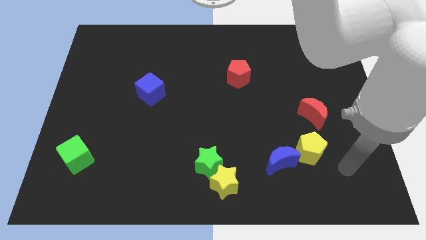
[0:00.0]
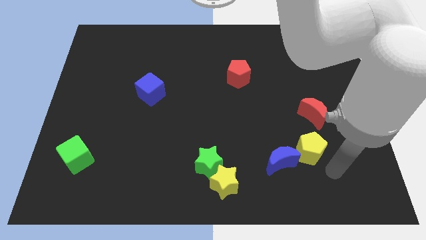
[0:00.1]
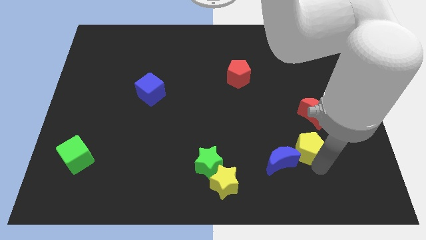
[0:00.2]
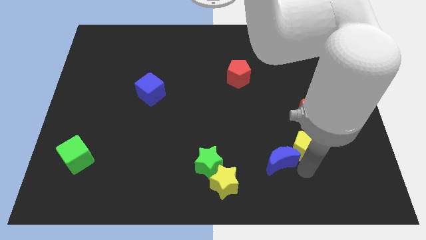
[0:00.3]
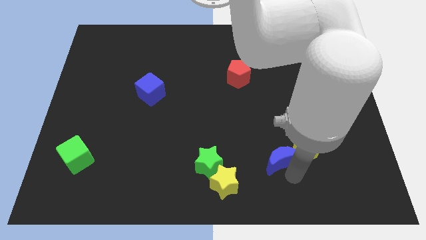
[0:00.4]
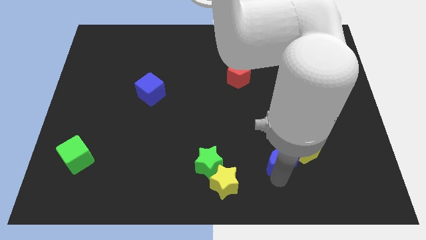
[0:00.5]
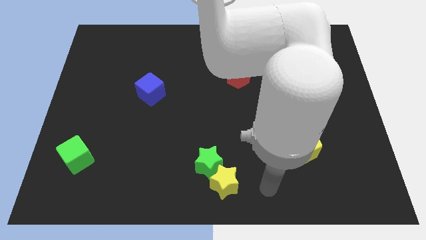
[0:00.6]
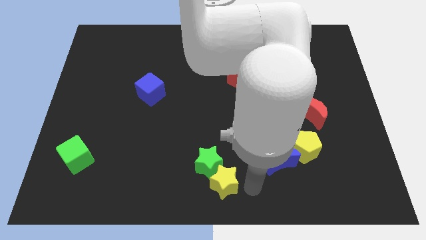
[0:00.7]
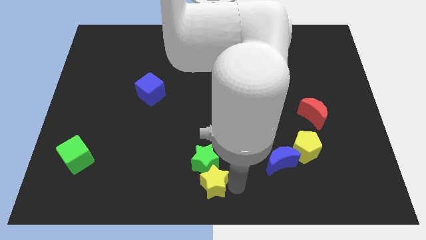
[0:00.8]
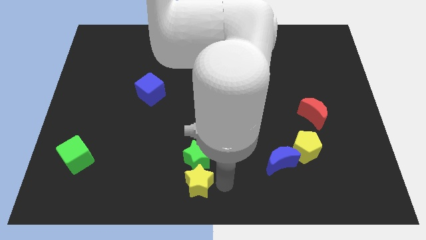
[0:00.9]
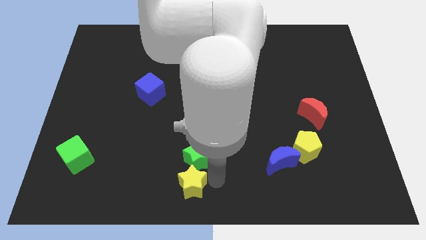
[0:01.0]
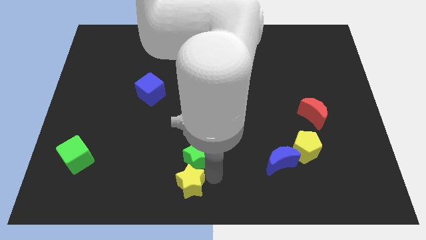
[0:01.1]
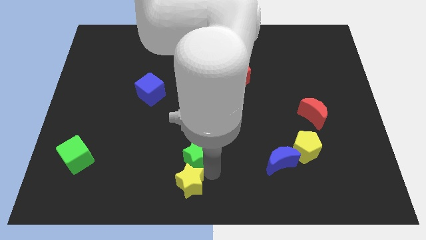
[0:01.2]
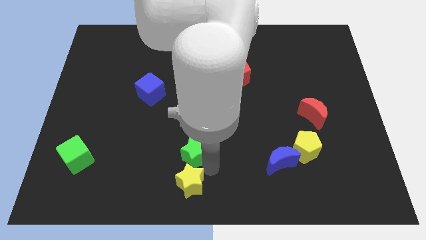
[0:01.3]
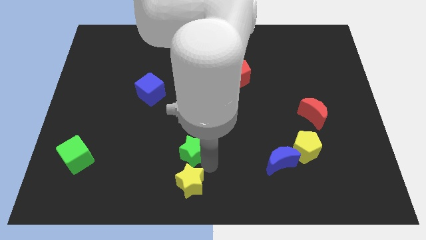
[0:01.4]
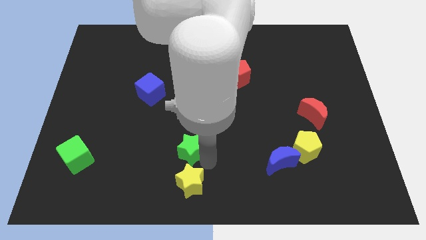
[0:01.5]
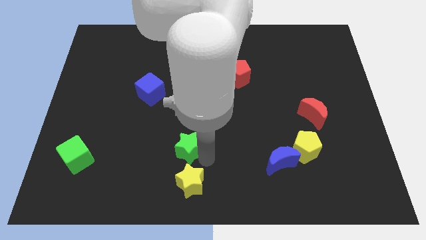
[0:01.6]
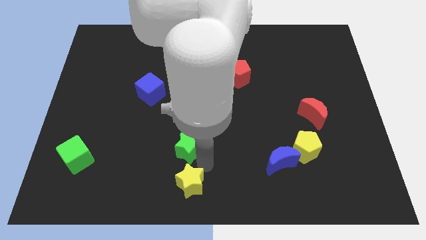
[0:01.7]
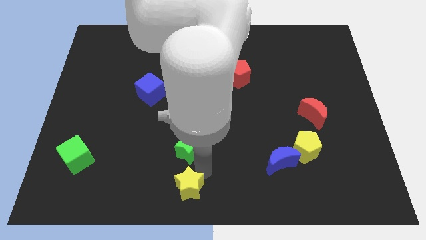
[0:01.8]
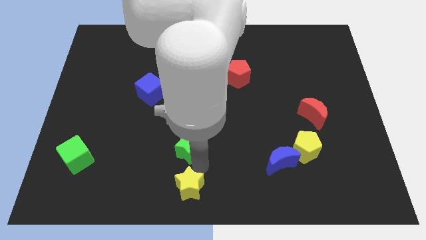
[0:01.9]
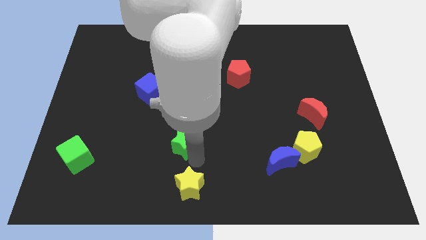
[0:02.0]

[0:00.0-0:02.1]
slide the green star up and then to the left somewhat

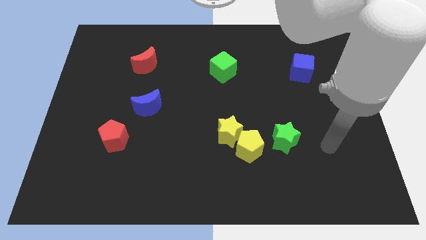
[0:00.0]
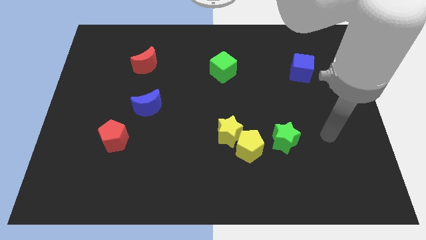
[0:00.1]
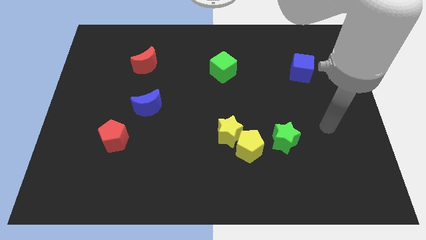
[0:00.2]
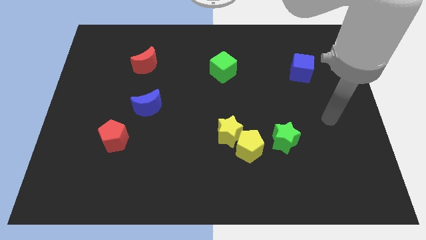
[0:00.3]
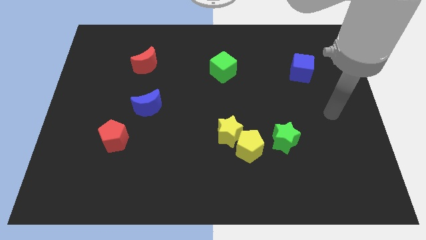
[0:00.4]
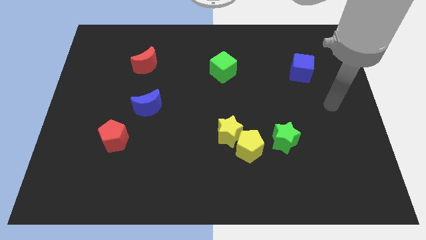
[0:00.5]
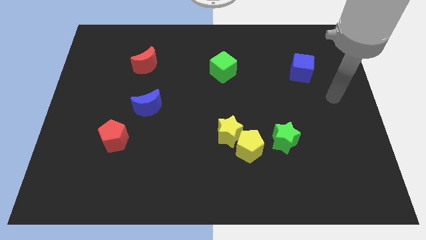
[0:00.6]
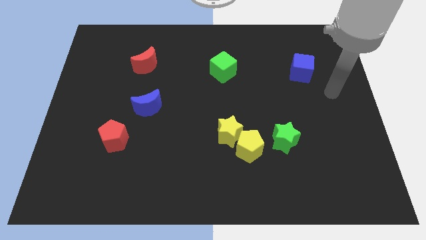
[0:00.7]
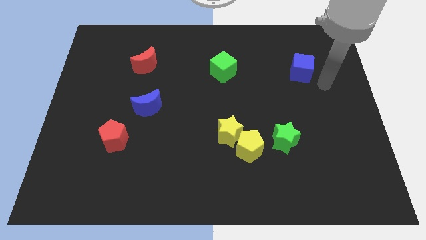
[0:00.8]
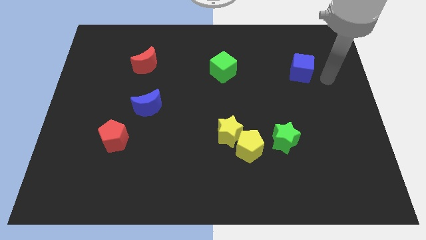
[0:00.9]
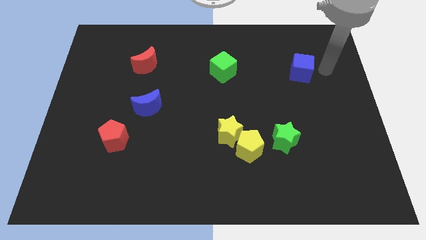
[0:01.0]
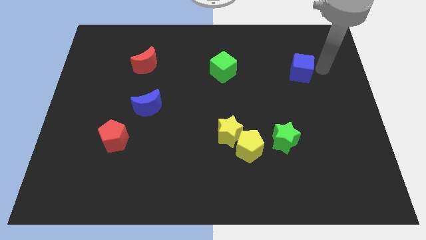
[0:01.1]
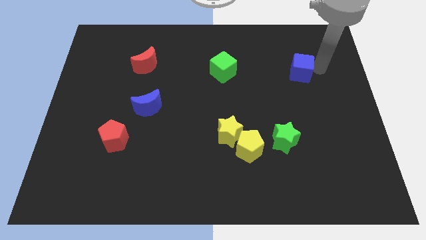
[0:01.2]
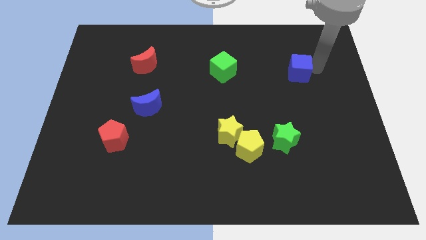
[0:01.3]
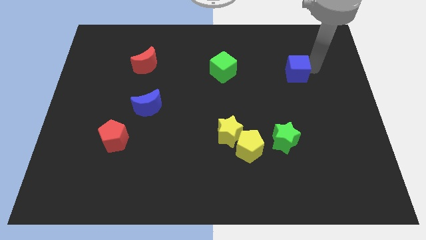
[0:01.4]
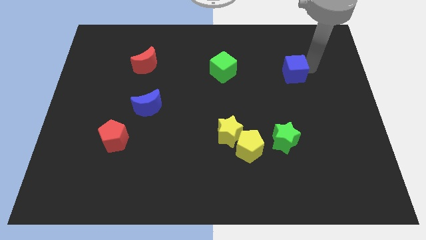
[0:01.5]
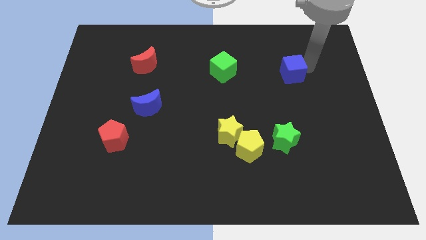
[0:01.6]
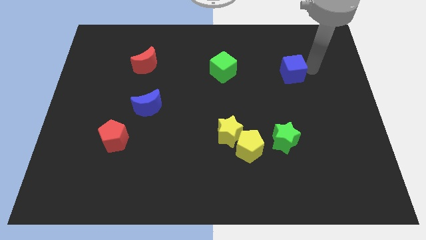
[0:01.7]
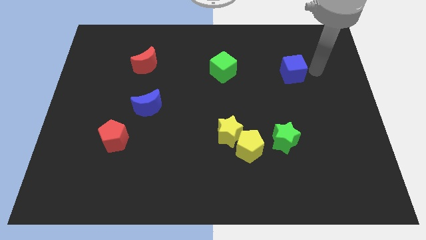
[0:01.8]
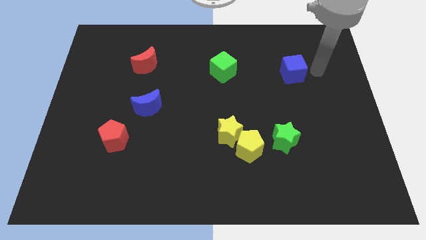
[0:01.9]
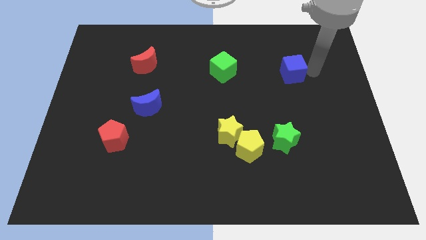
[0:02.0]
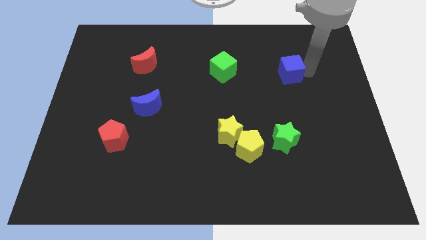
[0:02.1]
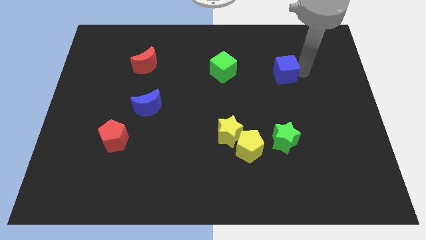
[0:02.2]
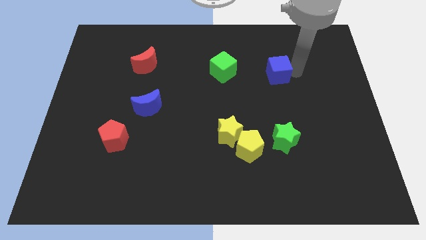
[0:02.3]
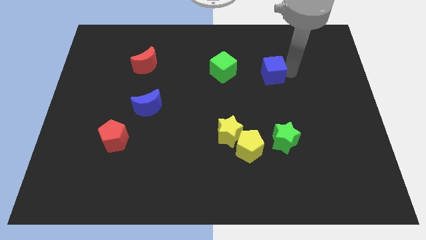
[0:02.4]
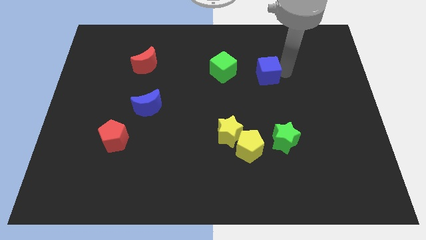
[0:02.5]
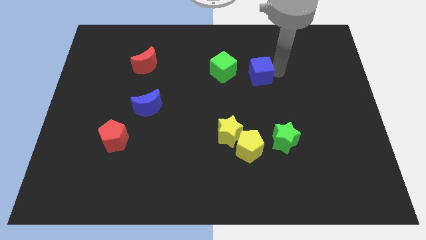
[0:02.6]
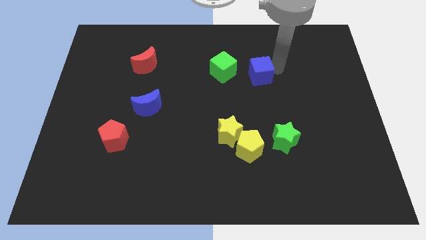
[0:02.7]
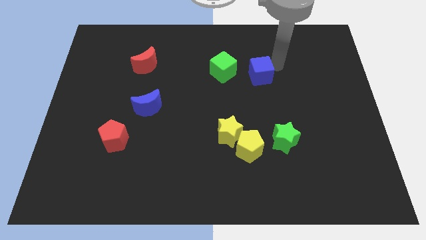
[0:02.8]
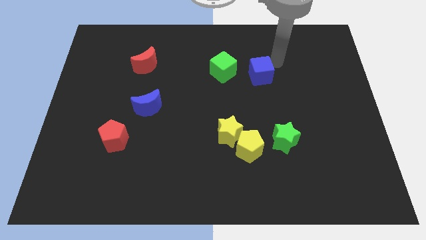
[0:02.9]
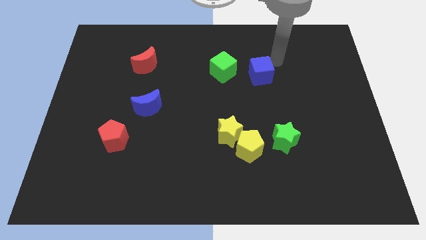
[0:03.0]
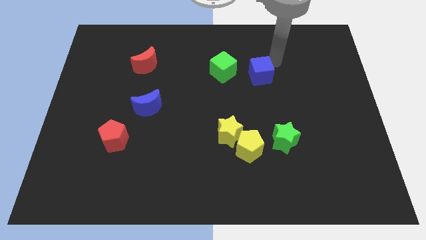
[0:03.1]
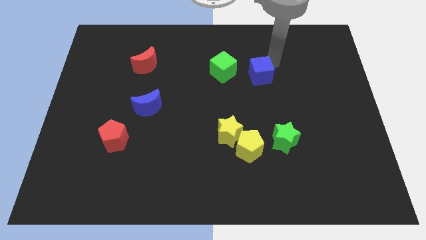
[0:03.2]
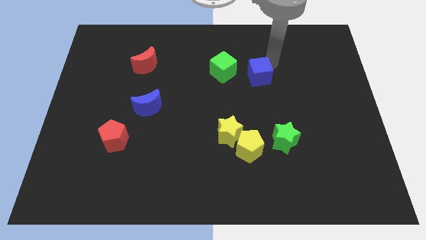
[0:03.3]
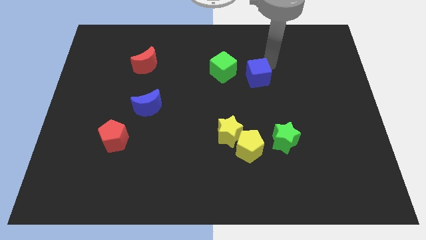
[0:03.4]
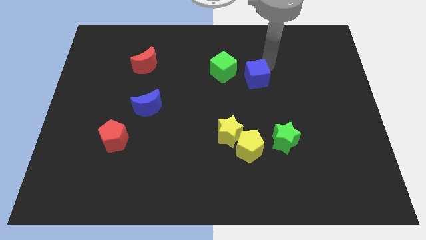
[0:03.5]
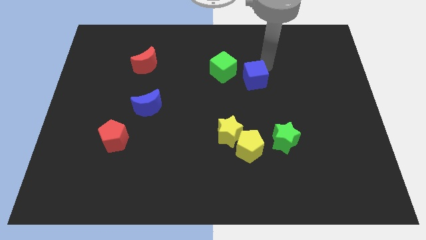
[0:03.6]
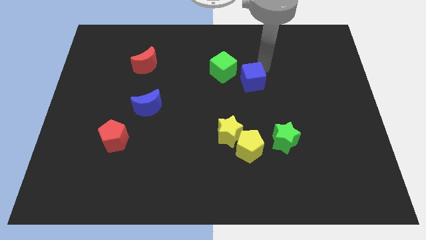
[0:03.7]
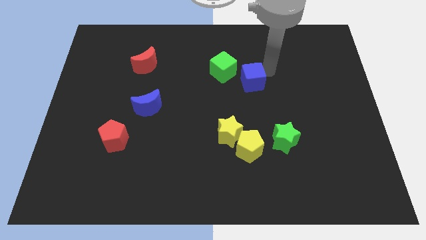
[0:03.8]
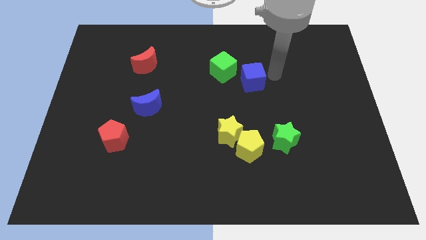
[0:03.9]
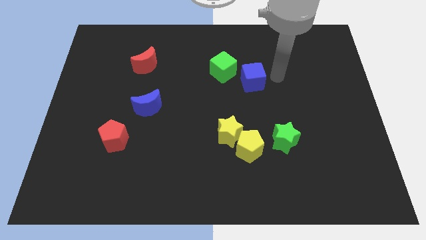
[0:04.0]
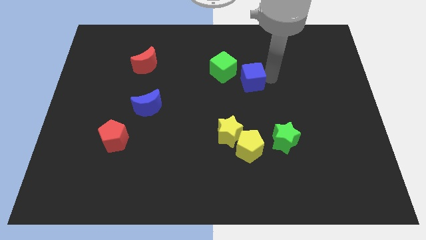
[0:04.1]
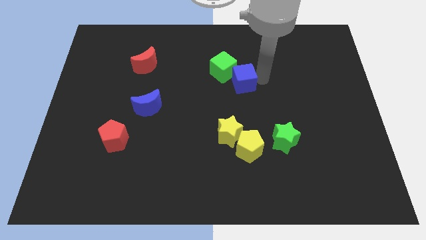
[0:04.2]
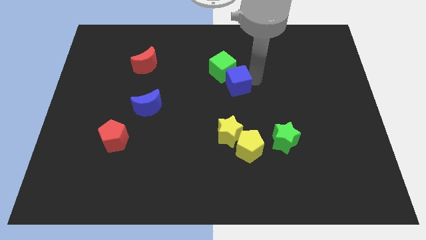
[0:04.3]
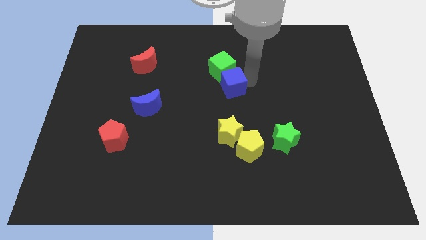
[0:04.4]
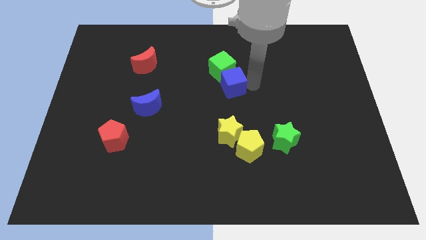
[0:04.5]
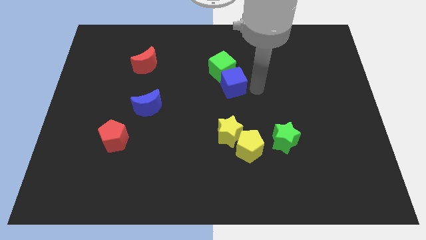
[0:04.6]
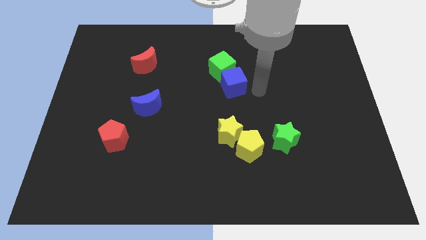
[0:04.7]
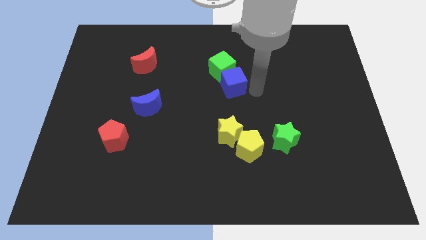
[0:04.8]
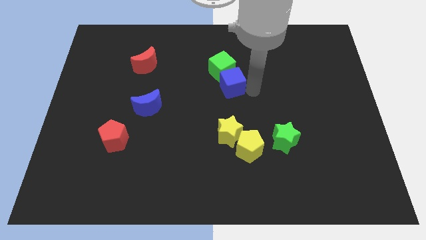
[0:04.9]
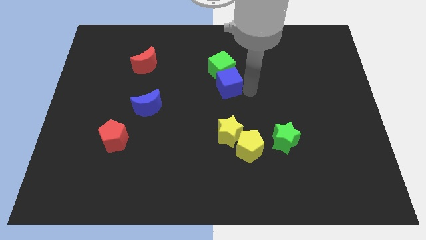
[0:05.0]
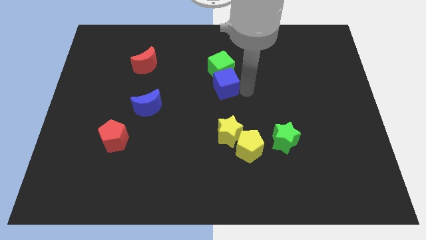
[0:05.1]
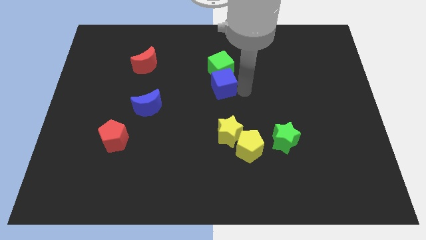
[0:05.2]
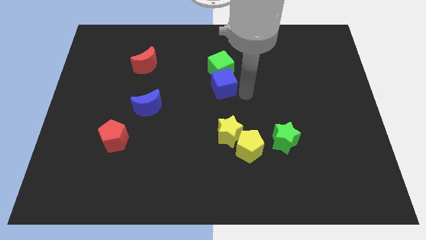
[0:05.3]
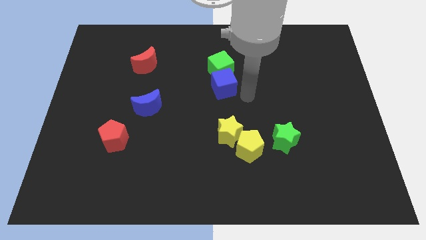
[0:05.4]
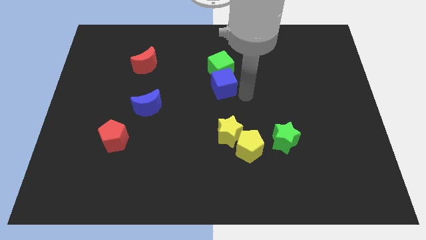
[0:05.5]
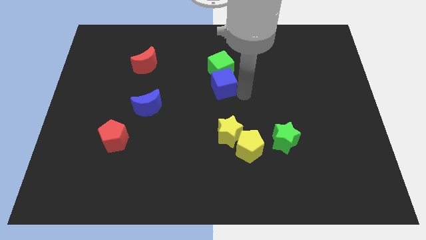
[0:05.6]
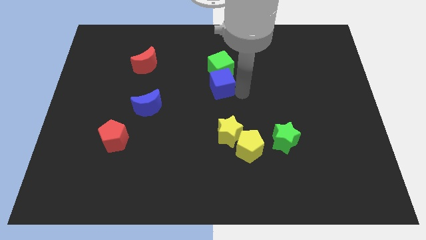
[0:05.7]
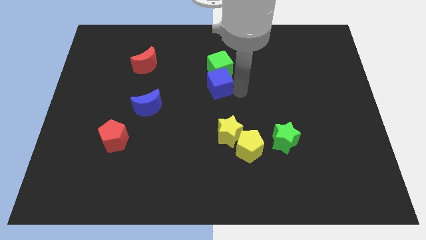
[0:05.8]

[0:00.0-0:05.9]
push the blue cube to the left
